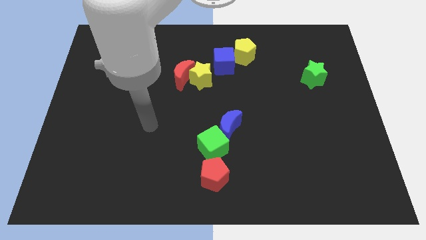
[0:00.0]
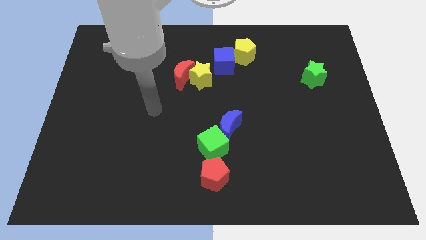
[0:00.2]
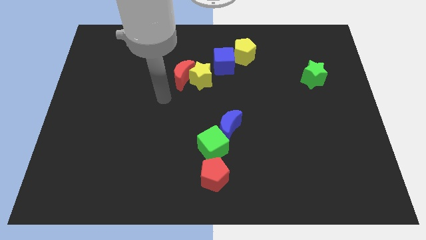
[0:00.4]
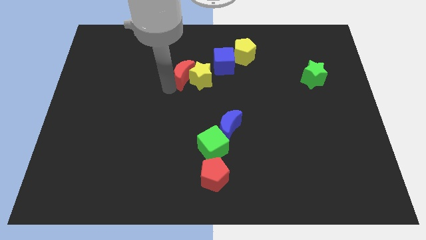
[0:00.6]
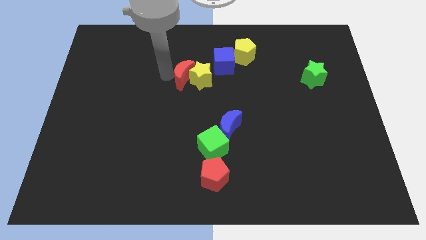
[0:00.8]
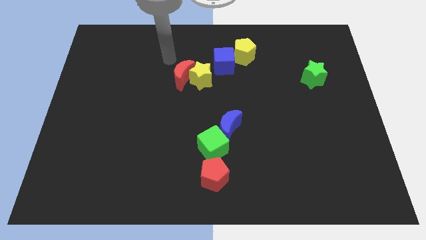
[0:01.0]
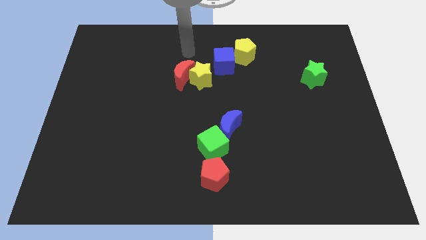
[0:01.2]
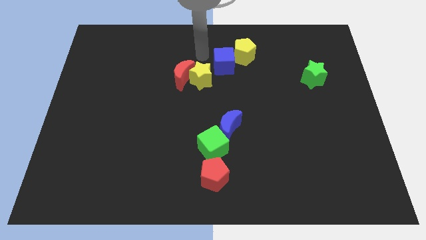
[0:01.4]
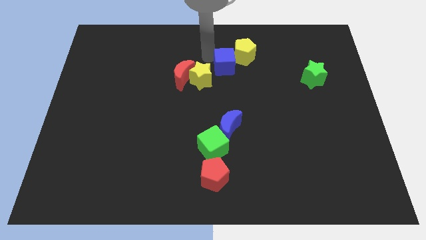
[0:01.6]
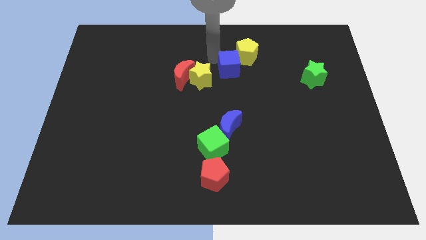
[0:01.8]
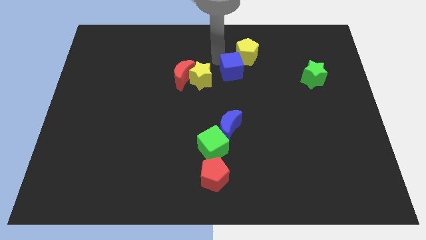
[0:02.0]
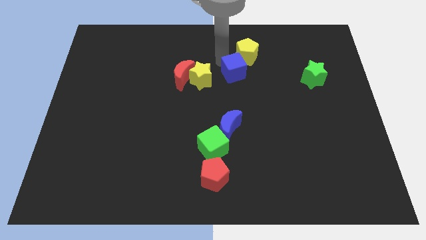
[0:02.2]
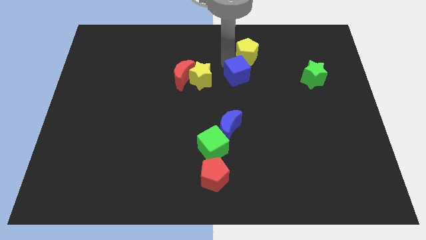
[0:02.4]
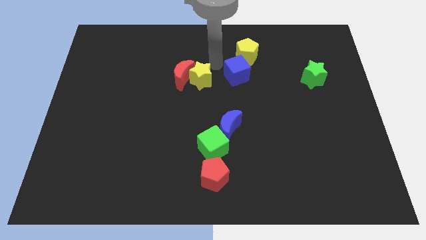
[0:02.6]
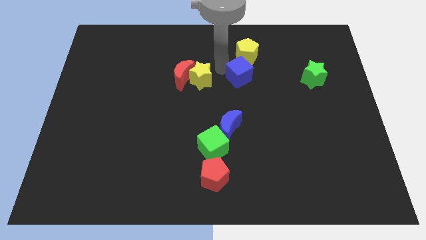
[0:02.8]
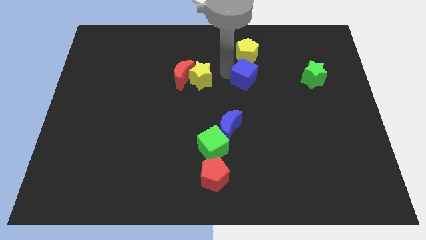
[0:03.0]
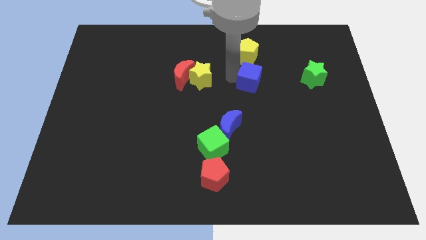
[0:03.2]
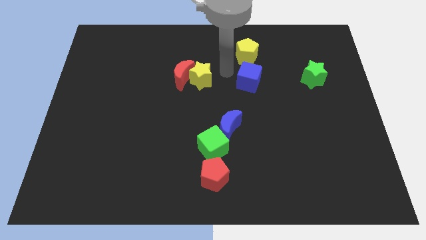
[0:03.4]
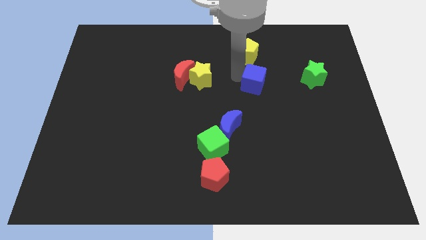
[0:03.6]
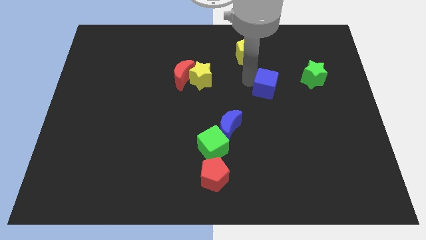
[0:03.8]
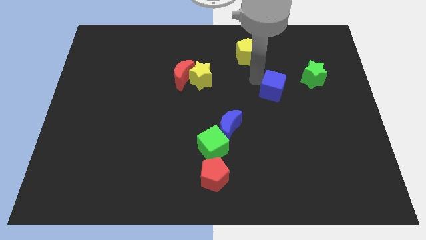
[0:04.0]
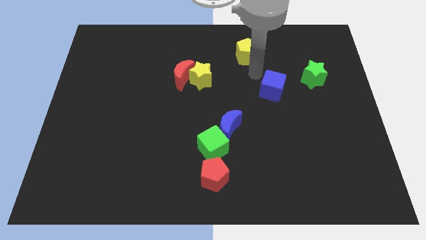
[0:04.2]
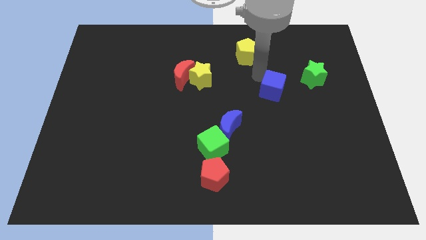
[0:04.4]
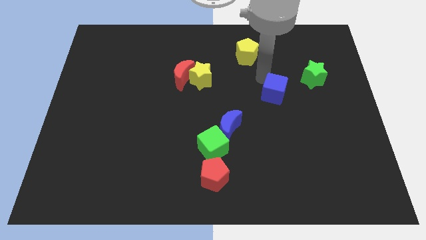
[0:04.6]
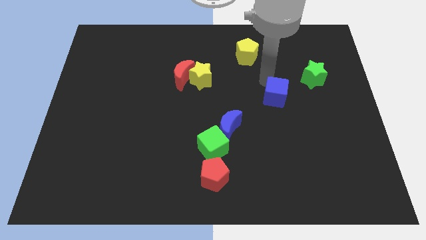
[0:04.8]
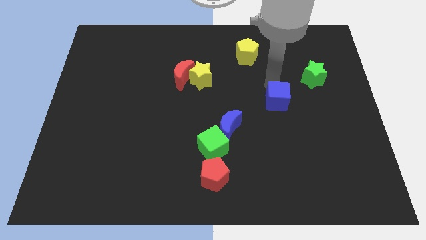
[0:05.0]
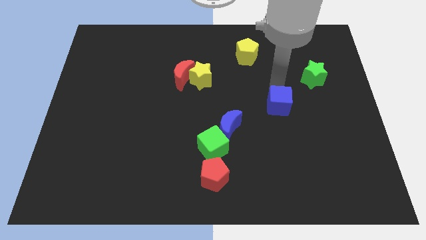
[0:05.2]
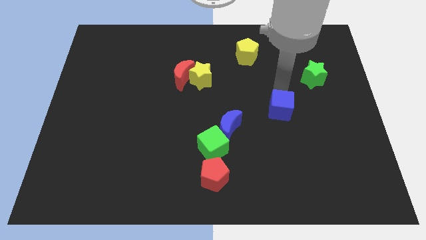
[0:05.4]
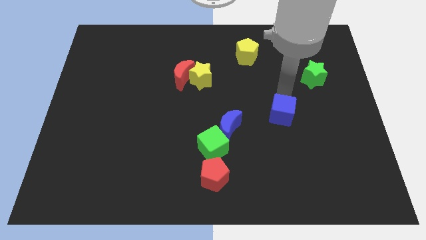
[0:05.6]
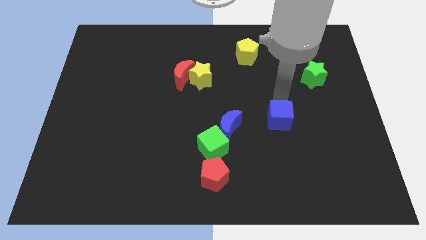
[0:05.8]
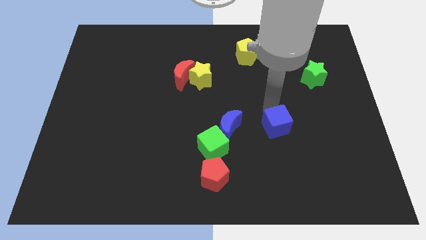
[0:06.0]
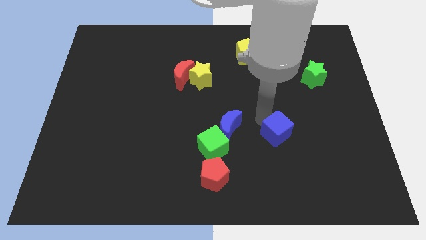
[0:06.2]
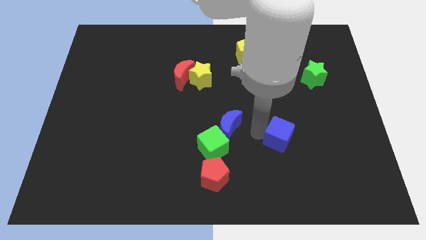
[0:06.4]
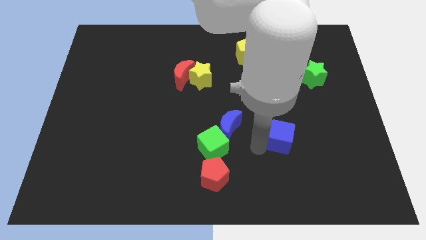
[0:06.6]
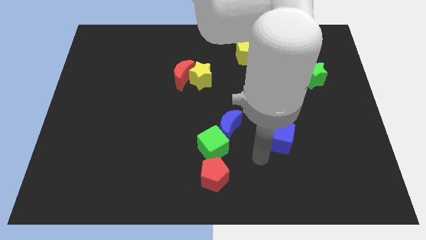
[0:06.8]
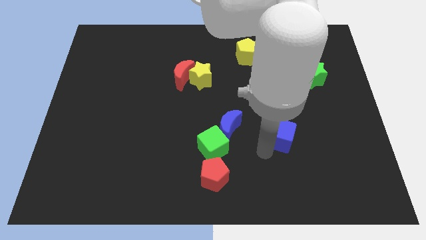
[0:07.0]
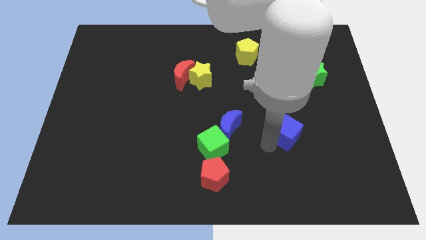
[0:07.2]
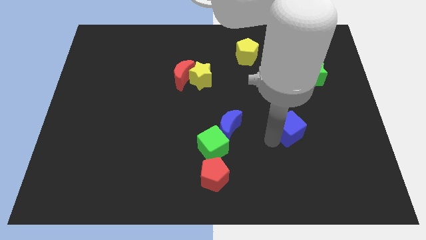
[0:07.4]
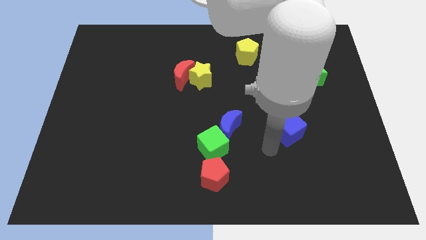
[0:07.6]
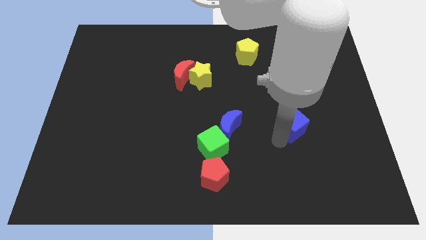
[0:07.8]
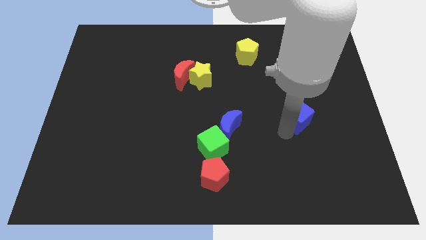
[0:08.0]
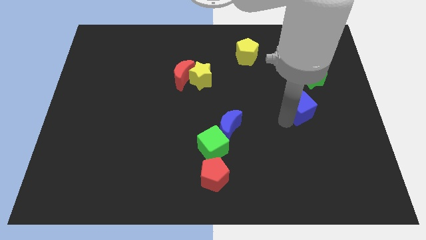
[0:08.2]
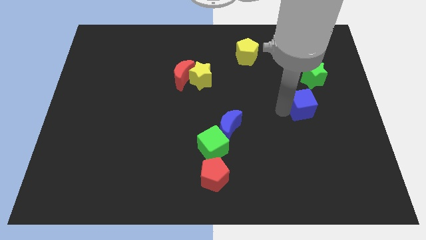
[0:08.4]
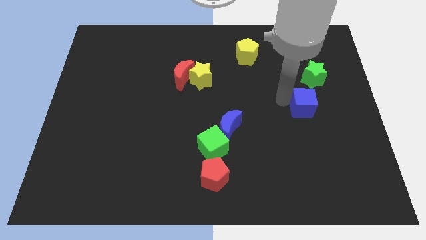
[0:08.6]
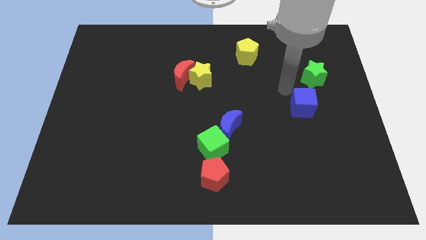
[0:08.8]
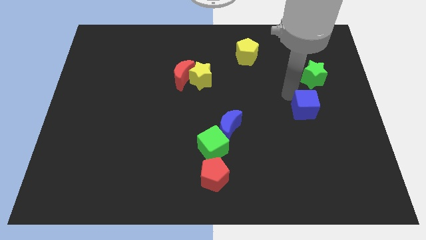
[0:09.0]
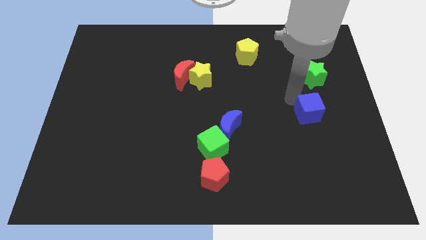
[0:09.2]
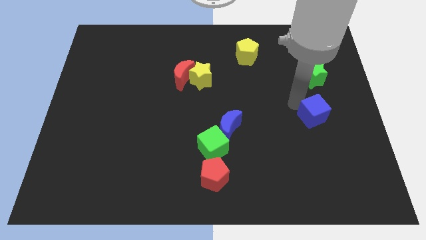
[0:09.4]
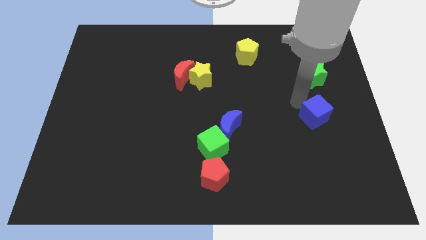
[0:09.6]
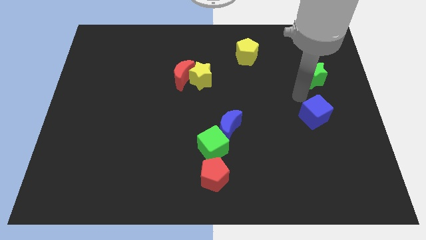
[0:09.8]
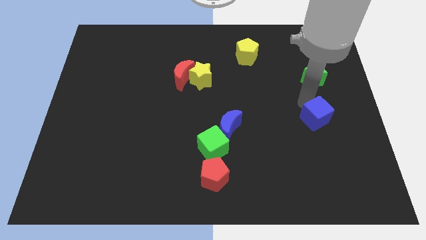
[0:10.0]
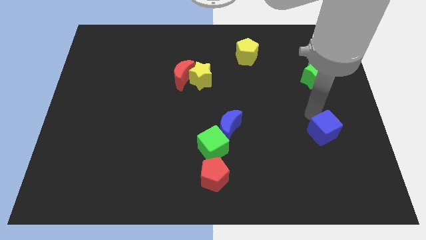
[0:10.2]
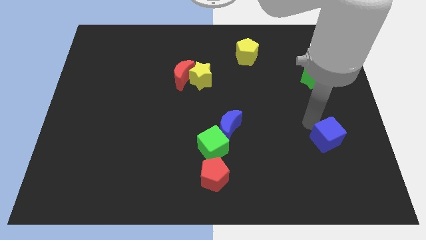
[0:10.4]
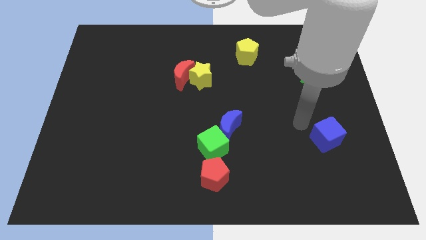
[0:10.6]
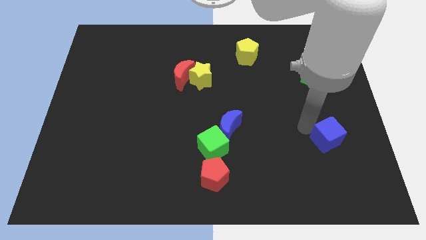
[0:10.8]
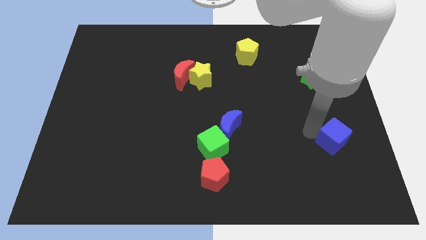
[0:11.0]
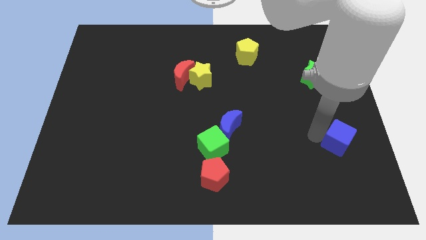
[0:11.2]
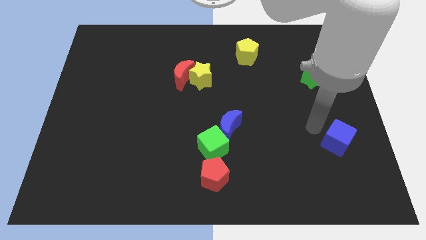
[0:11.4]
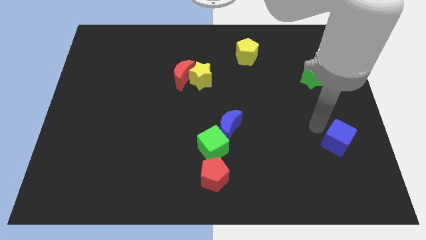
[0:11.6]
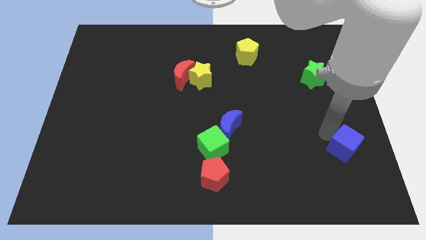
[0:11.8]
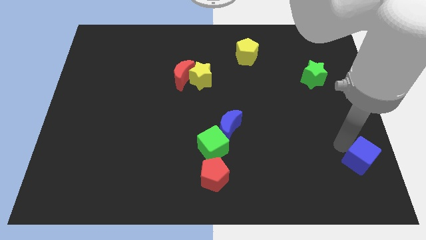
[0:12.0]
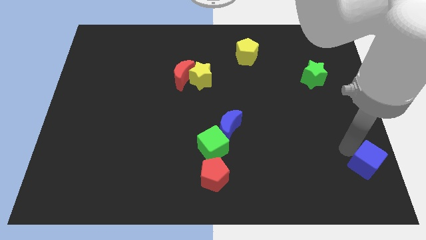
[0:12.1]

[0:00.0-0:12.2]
put the blue cube to the lower right corner

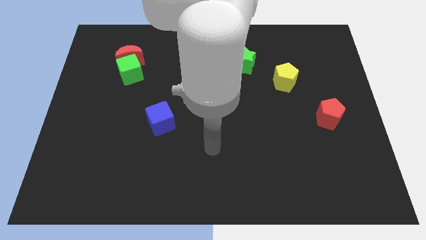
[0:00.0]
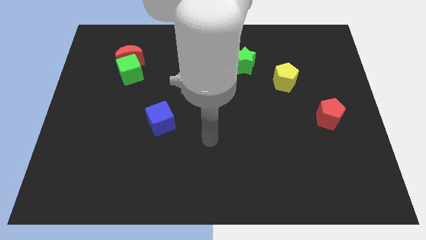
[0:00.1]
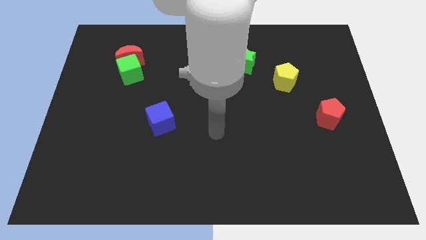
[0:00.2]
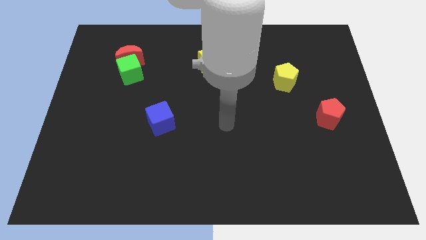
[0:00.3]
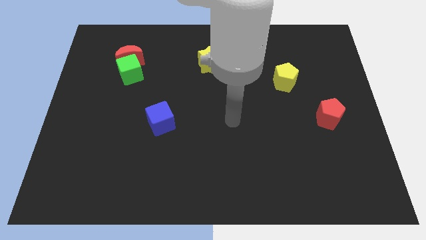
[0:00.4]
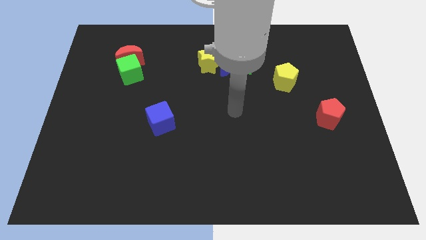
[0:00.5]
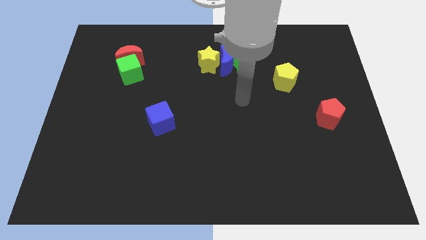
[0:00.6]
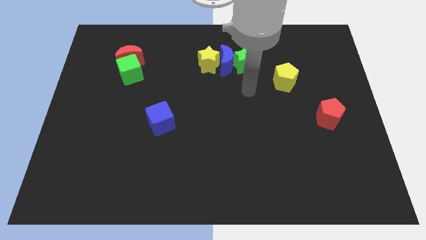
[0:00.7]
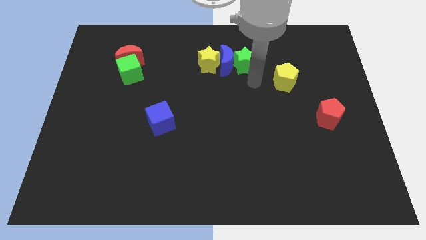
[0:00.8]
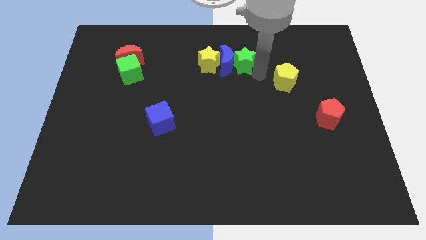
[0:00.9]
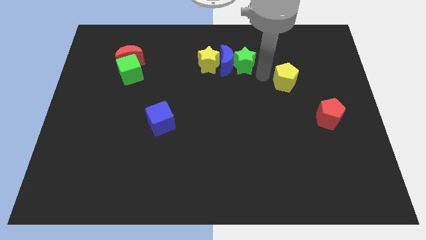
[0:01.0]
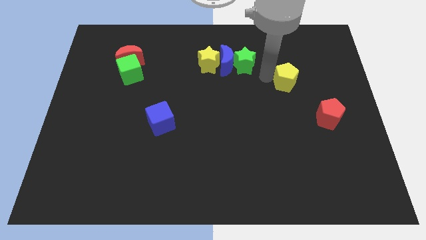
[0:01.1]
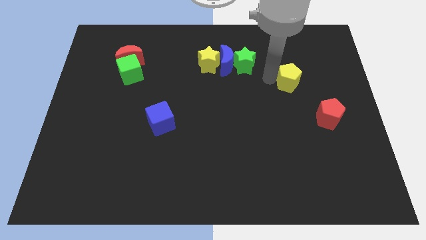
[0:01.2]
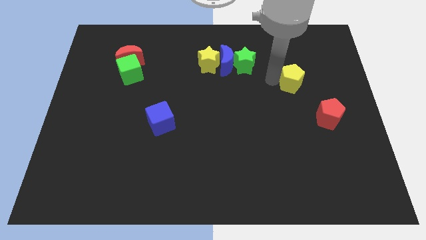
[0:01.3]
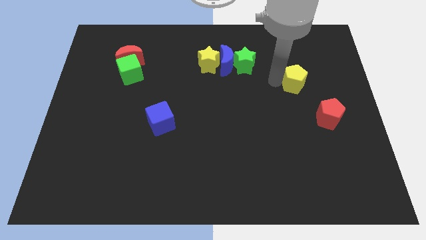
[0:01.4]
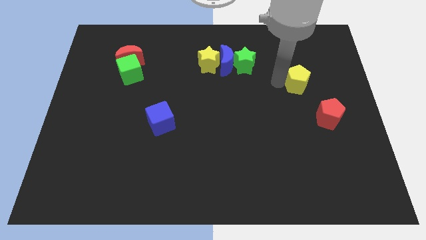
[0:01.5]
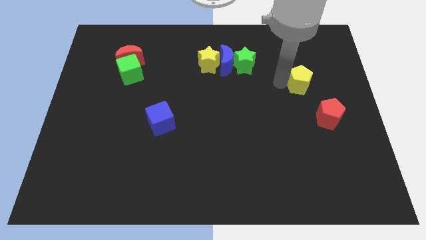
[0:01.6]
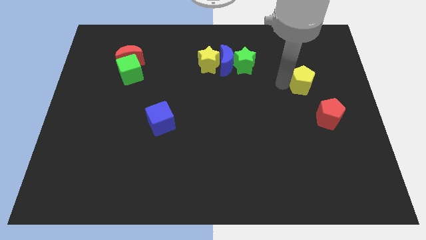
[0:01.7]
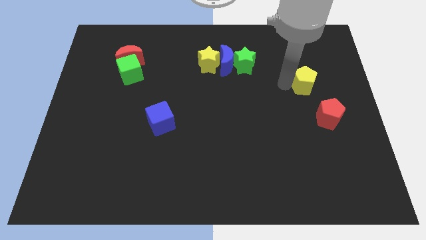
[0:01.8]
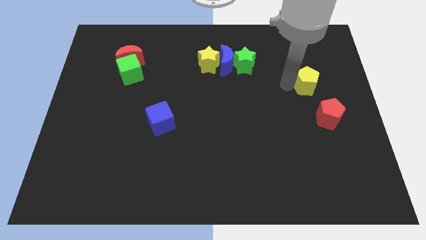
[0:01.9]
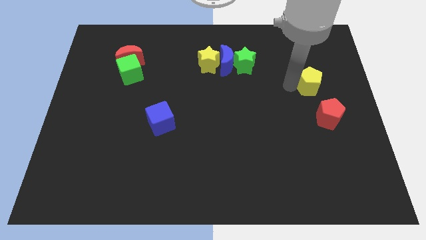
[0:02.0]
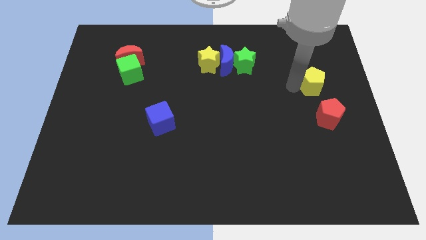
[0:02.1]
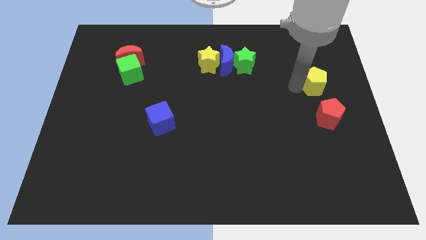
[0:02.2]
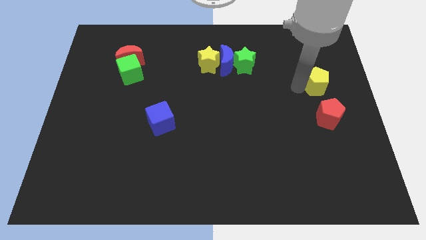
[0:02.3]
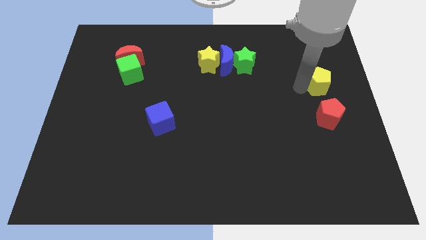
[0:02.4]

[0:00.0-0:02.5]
push the yellow pentagon to the right side of the board
